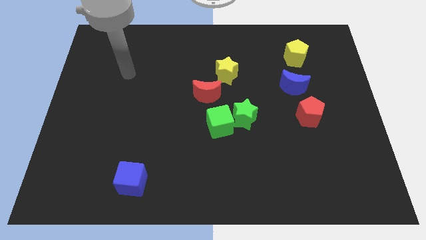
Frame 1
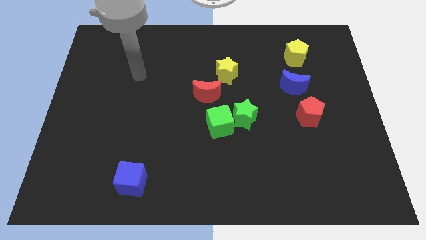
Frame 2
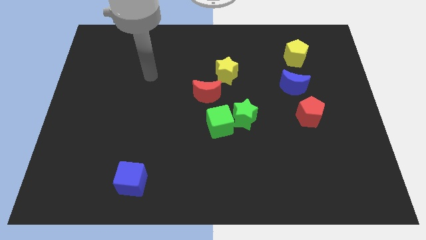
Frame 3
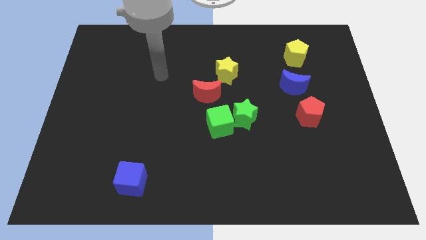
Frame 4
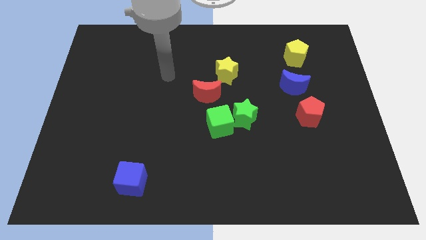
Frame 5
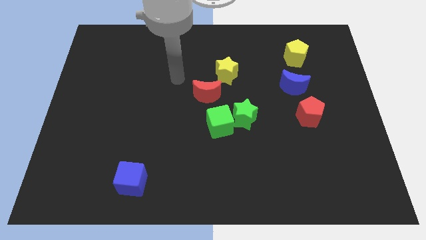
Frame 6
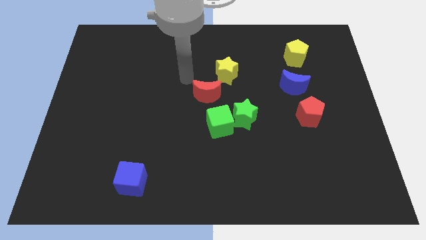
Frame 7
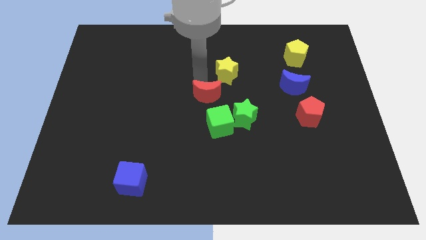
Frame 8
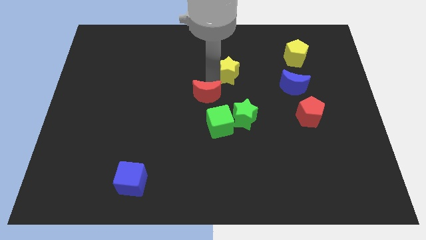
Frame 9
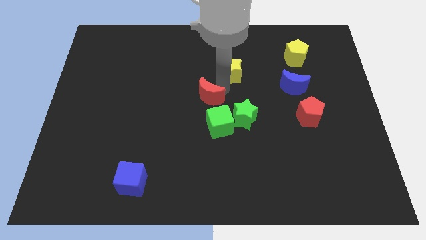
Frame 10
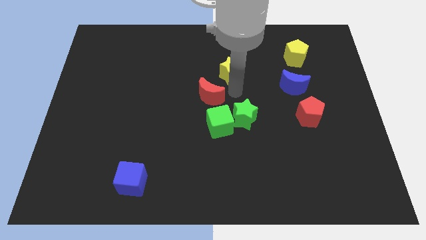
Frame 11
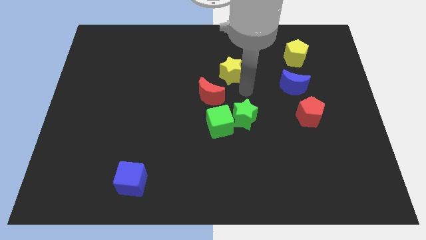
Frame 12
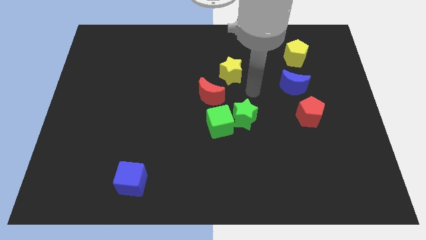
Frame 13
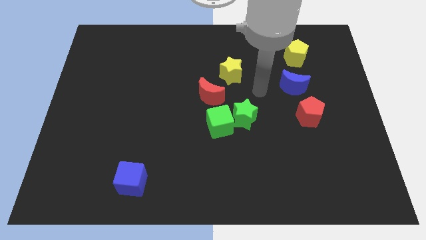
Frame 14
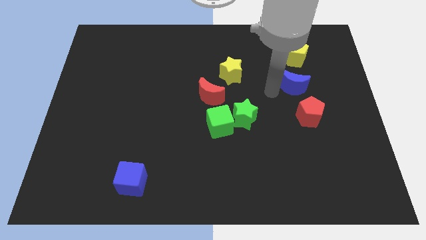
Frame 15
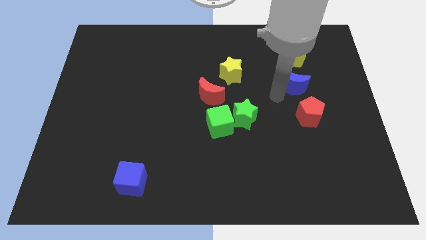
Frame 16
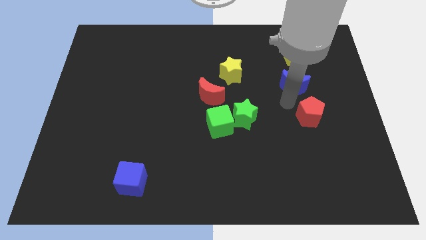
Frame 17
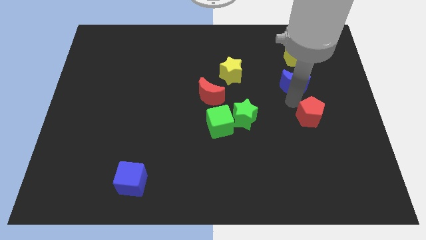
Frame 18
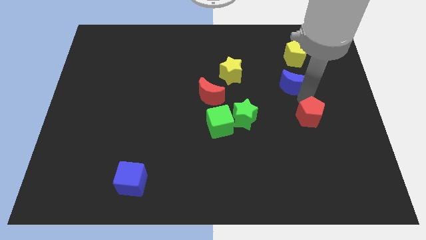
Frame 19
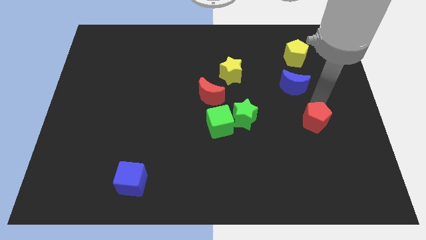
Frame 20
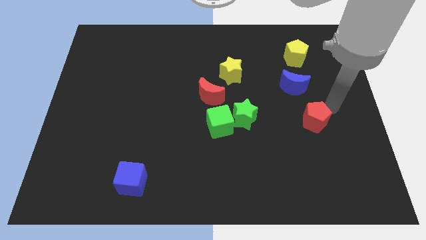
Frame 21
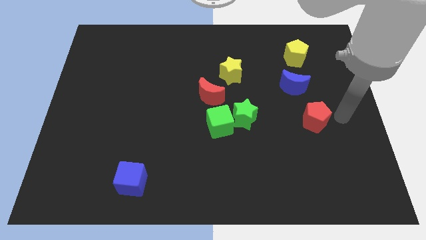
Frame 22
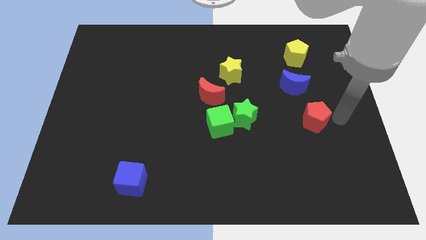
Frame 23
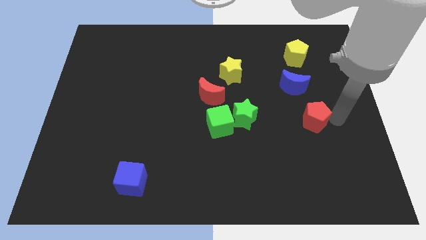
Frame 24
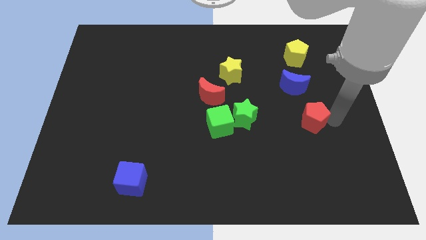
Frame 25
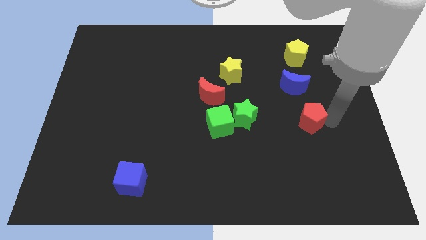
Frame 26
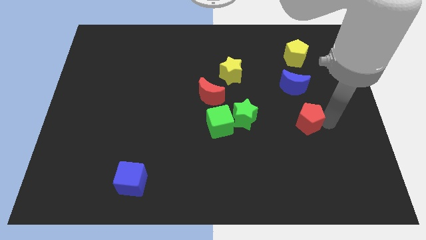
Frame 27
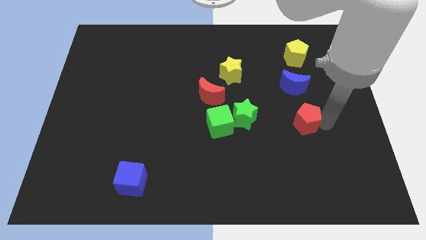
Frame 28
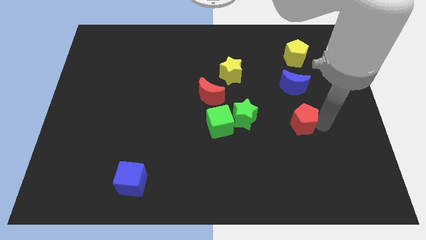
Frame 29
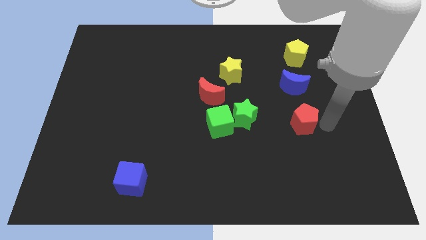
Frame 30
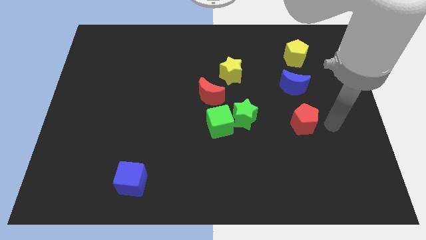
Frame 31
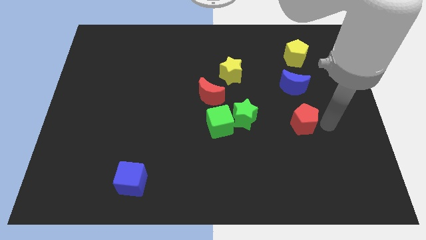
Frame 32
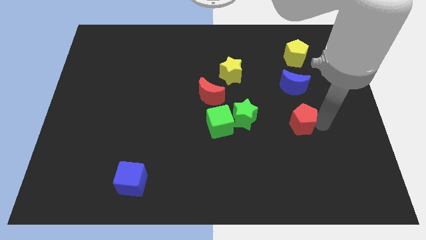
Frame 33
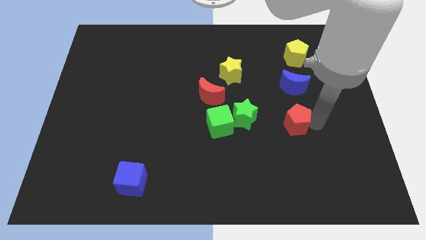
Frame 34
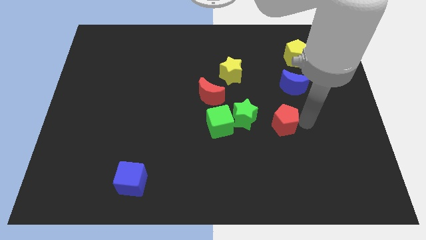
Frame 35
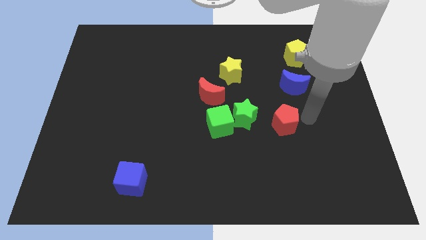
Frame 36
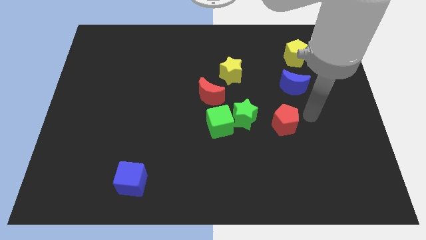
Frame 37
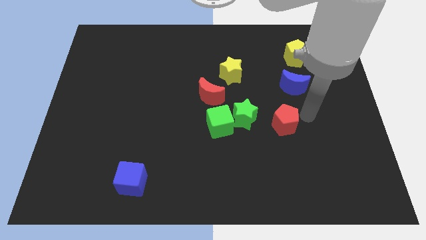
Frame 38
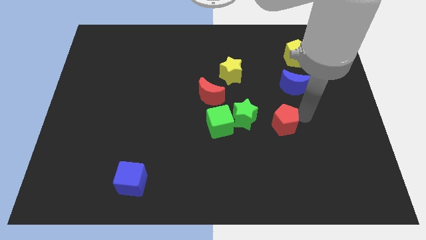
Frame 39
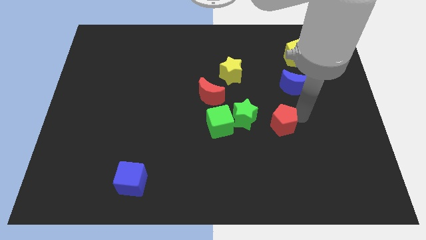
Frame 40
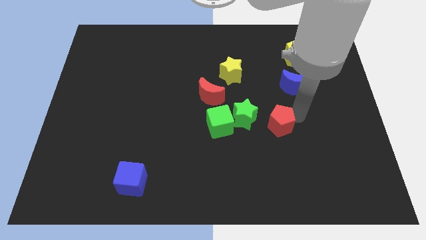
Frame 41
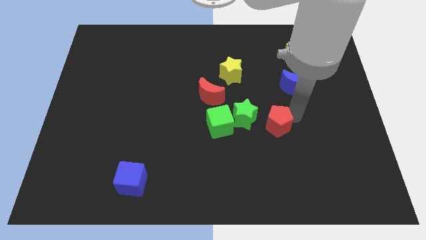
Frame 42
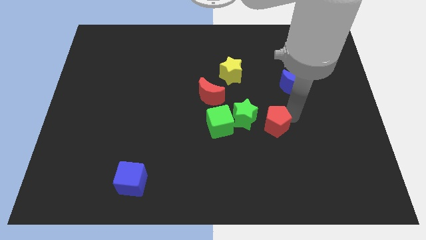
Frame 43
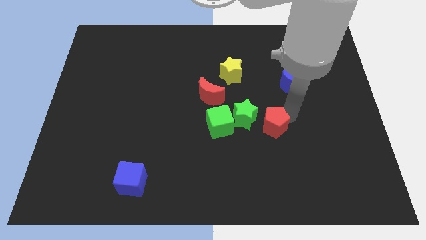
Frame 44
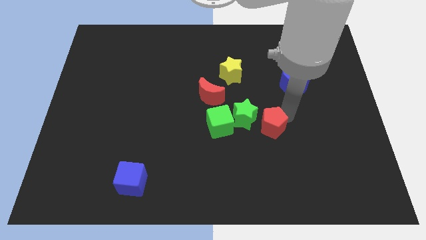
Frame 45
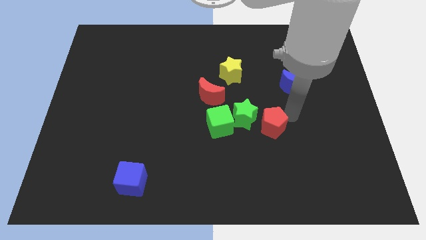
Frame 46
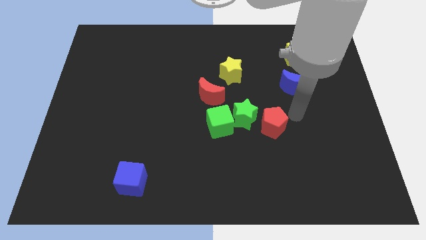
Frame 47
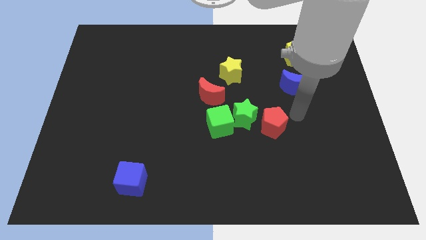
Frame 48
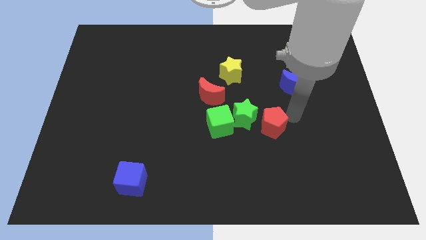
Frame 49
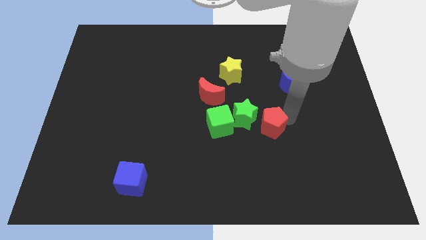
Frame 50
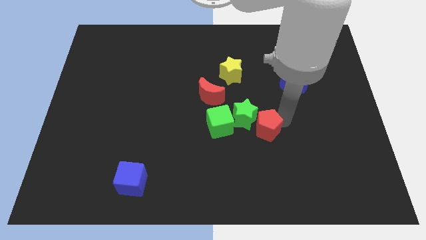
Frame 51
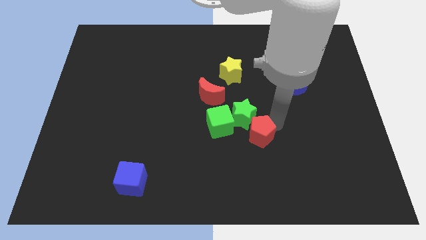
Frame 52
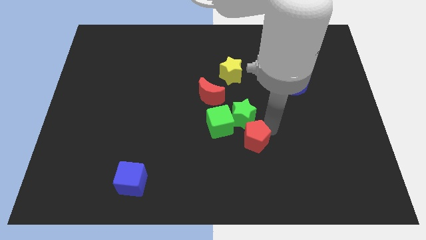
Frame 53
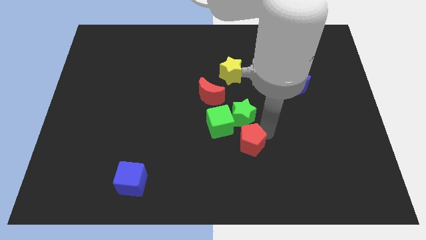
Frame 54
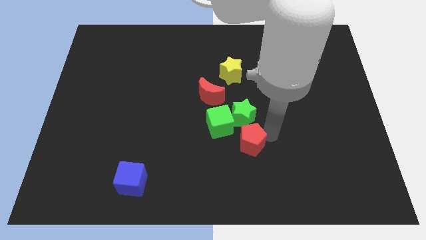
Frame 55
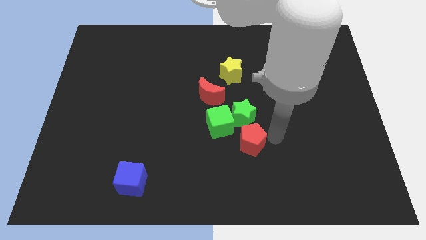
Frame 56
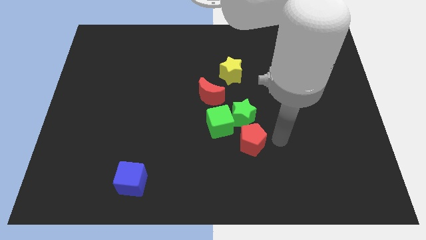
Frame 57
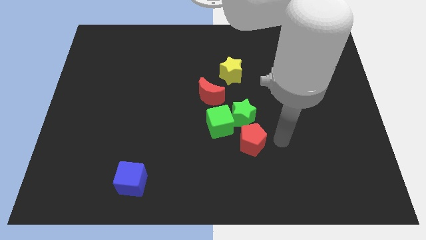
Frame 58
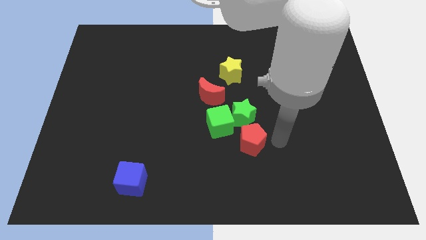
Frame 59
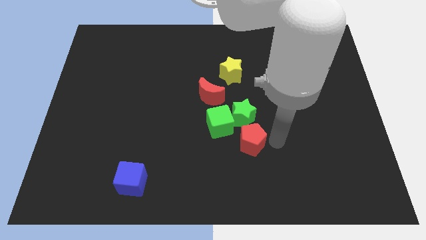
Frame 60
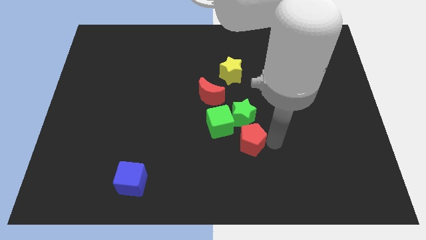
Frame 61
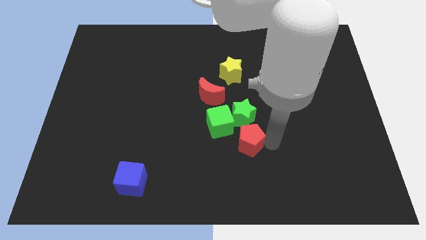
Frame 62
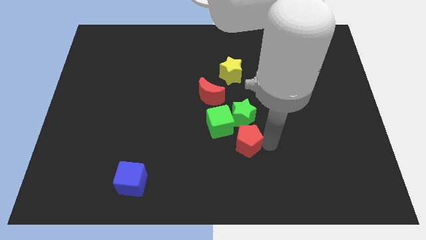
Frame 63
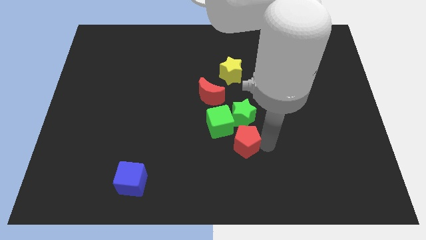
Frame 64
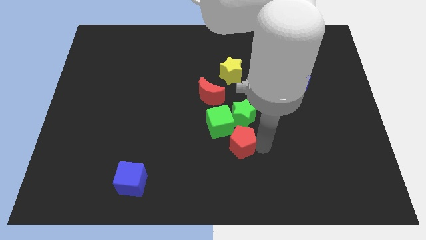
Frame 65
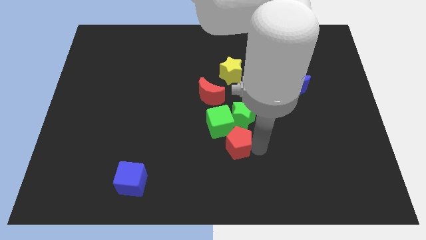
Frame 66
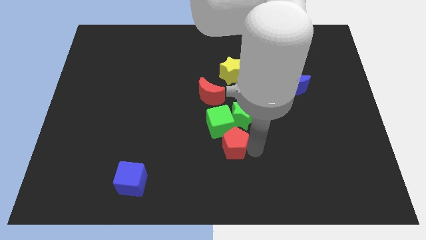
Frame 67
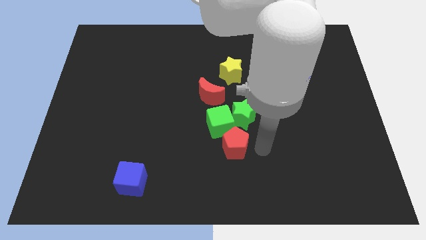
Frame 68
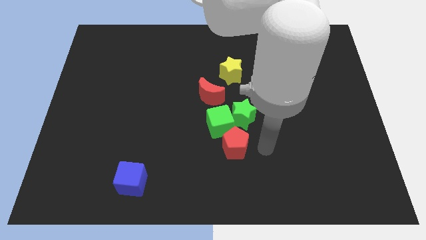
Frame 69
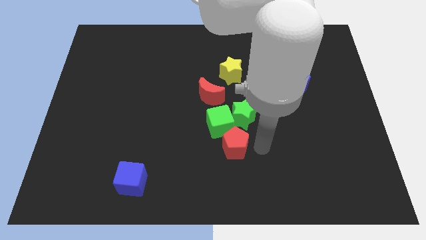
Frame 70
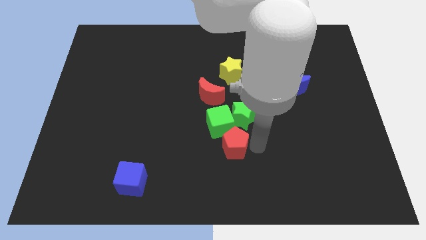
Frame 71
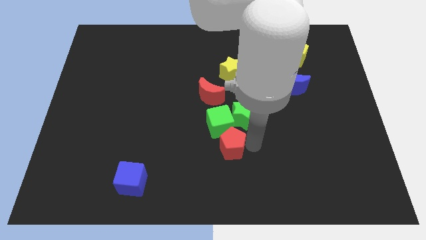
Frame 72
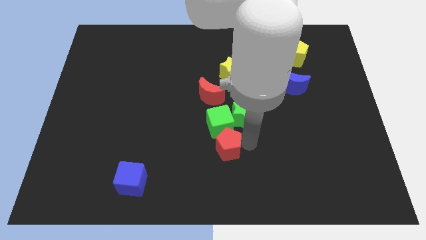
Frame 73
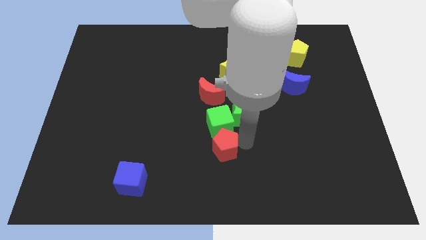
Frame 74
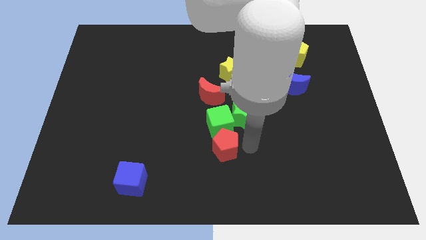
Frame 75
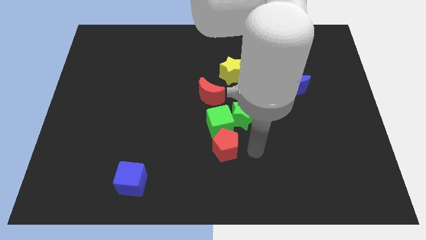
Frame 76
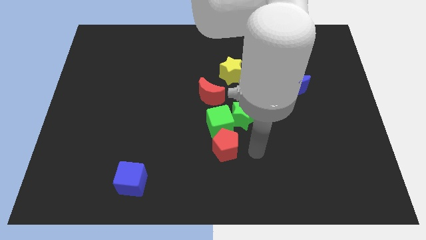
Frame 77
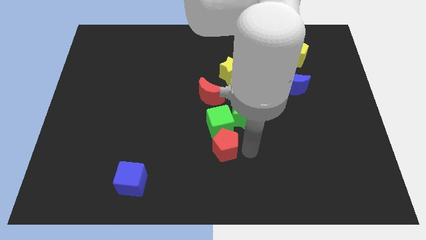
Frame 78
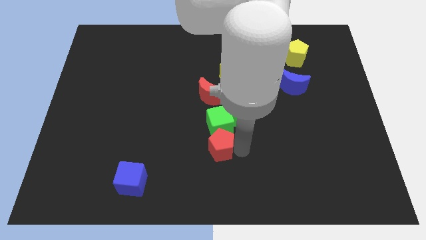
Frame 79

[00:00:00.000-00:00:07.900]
move the red pentagon to the bottom left side of the green cube
